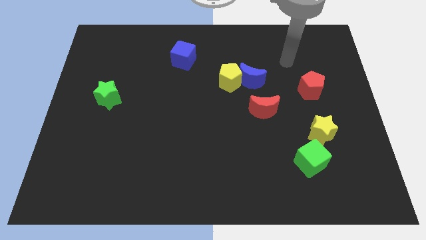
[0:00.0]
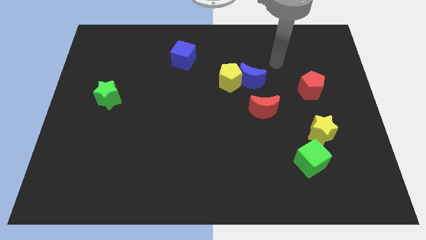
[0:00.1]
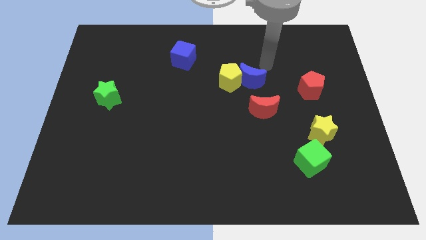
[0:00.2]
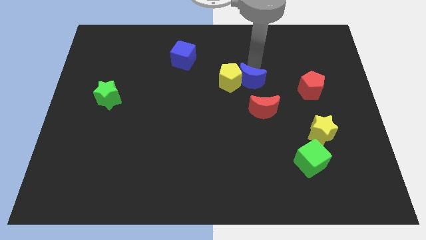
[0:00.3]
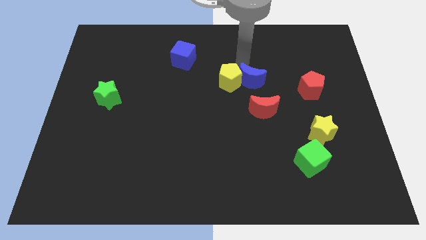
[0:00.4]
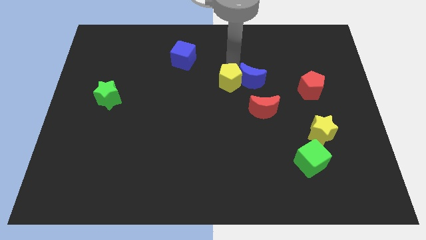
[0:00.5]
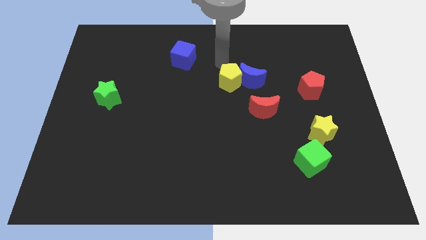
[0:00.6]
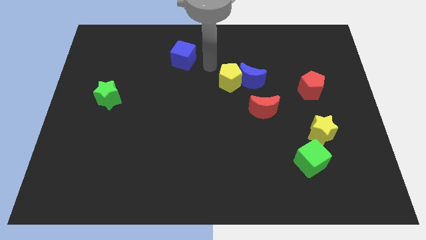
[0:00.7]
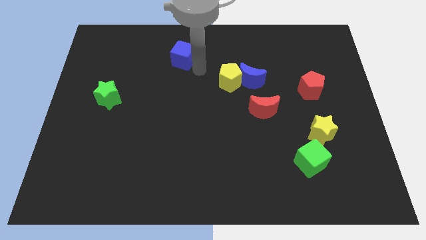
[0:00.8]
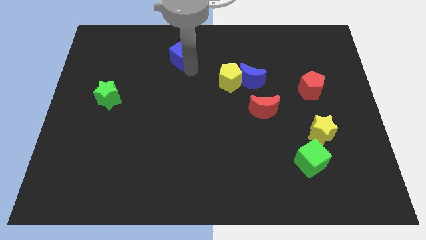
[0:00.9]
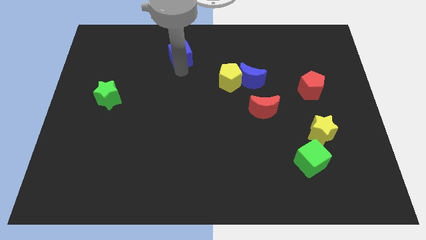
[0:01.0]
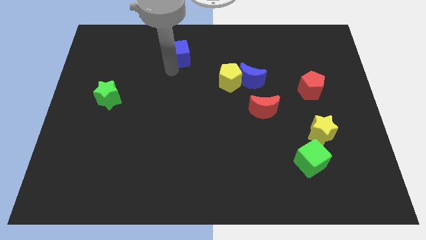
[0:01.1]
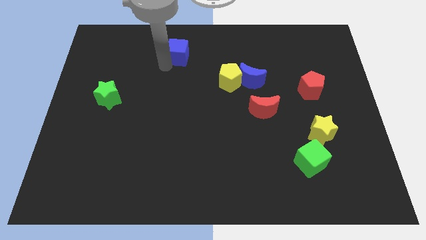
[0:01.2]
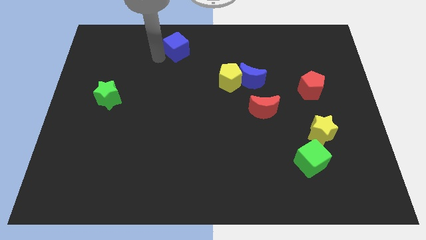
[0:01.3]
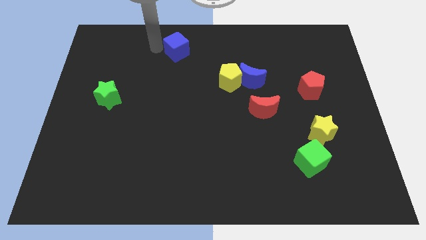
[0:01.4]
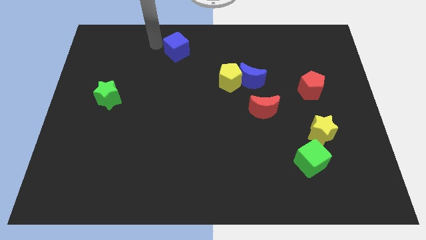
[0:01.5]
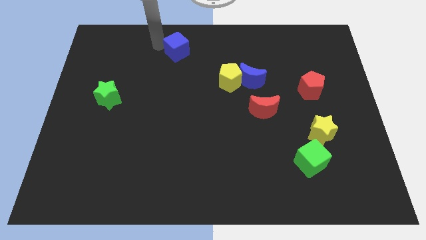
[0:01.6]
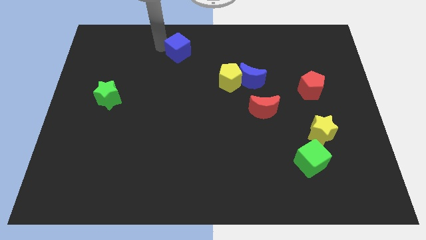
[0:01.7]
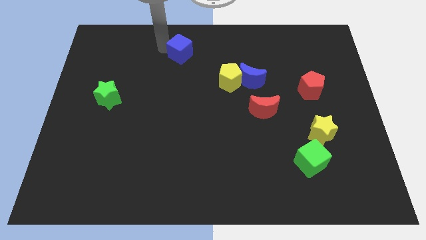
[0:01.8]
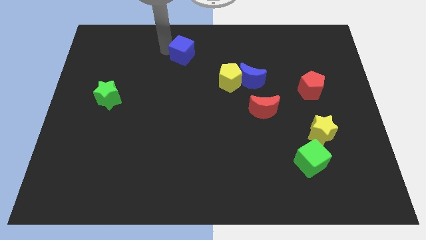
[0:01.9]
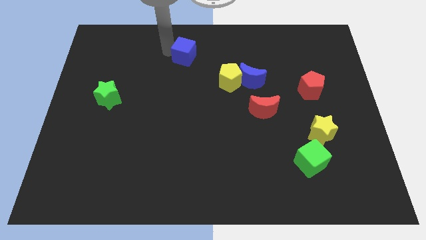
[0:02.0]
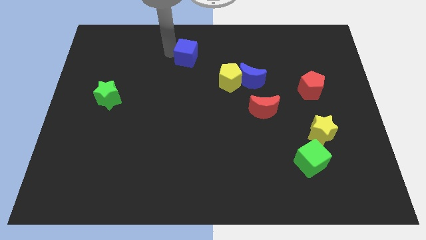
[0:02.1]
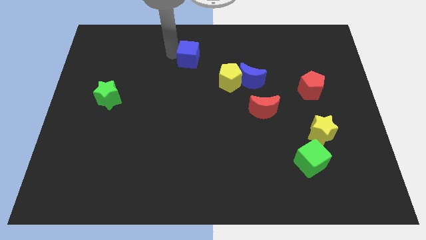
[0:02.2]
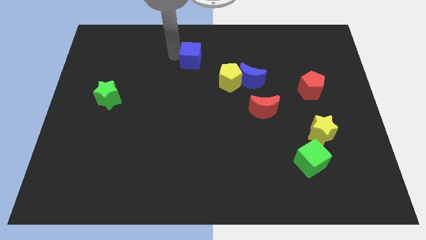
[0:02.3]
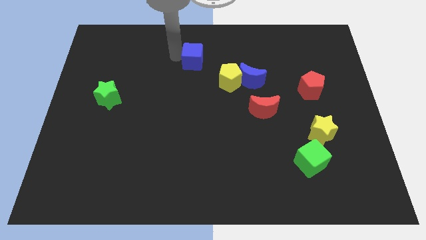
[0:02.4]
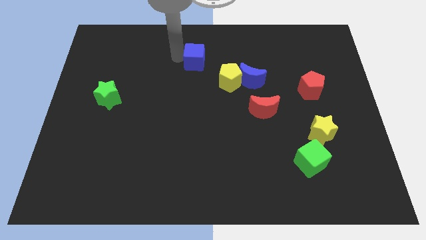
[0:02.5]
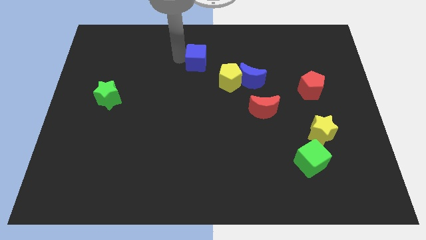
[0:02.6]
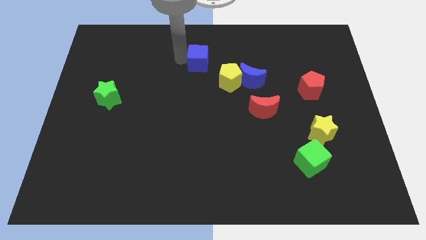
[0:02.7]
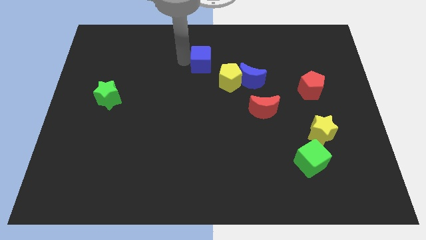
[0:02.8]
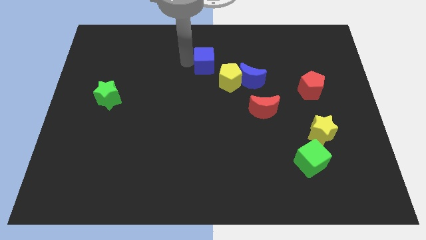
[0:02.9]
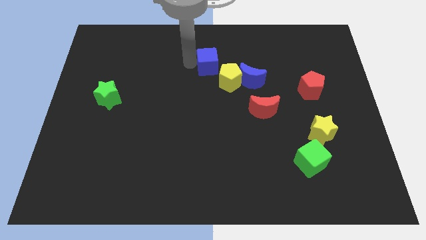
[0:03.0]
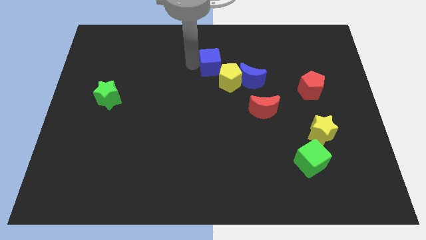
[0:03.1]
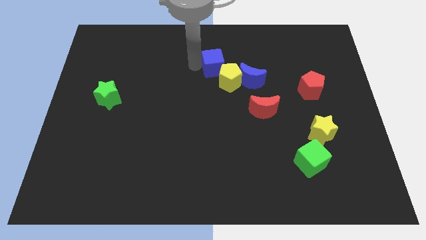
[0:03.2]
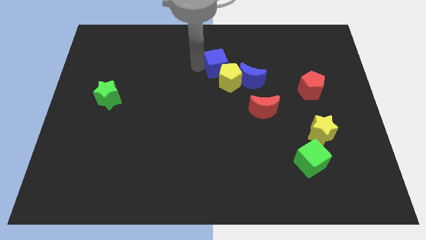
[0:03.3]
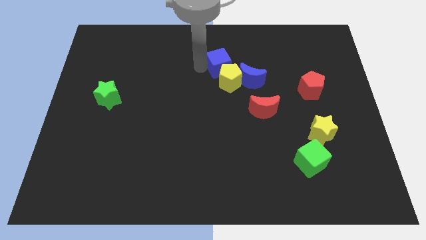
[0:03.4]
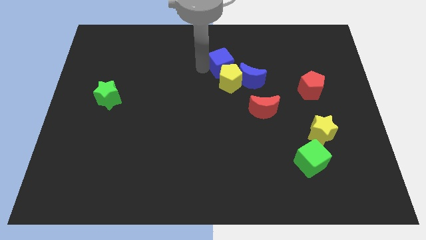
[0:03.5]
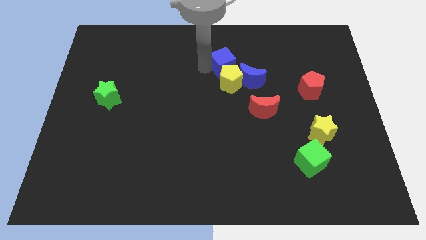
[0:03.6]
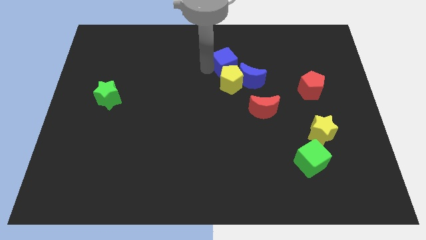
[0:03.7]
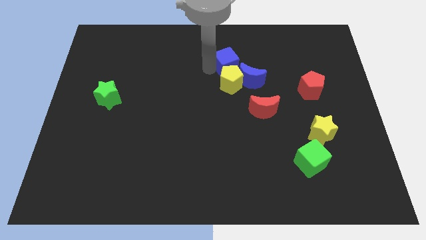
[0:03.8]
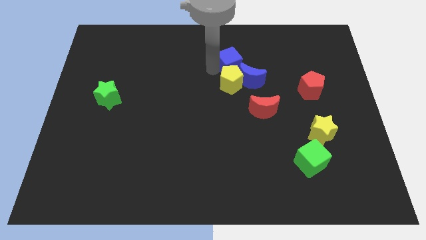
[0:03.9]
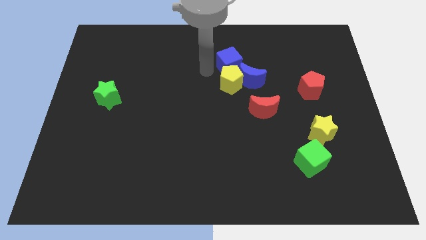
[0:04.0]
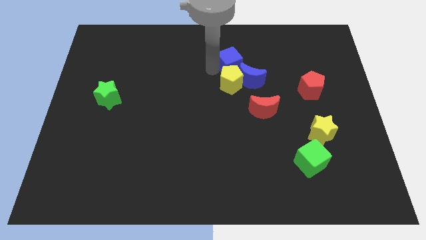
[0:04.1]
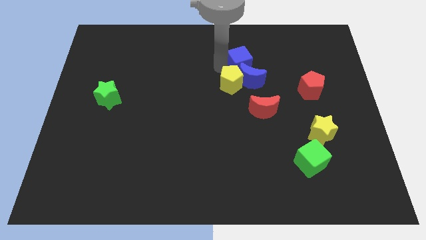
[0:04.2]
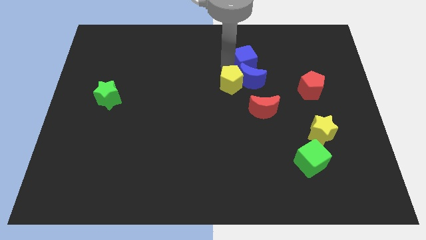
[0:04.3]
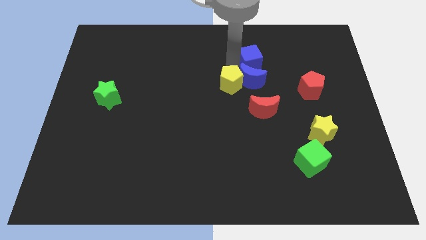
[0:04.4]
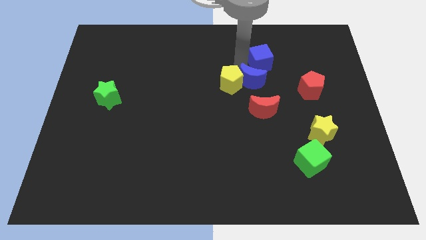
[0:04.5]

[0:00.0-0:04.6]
move the blue cube to the right

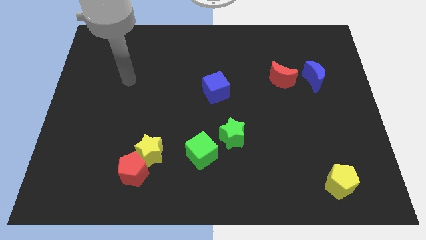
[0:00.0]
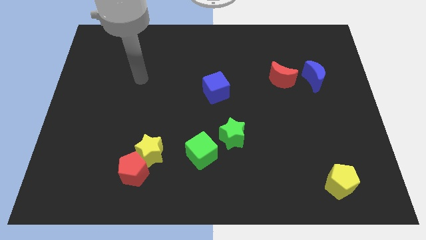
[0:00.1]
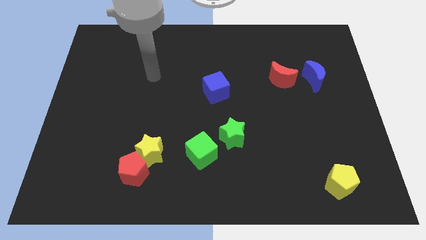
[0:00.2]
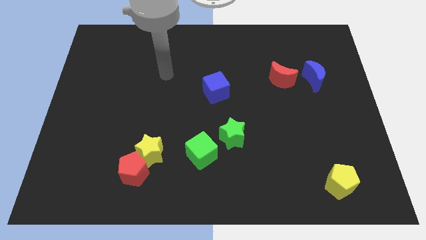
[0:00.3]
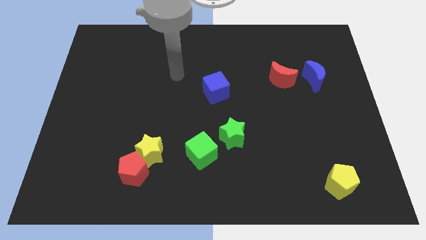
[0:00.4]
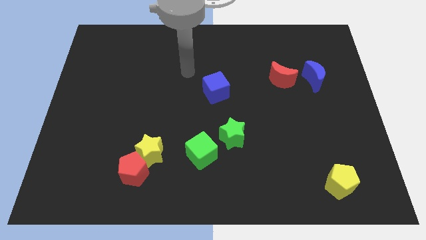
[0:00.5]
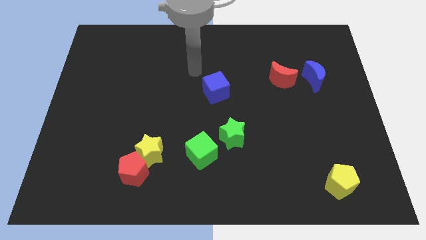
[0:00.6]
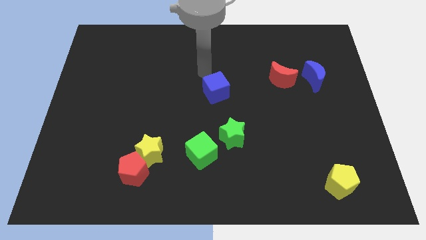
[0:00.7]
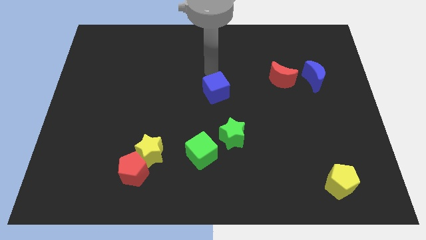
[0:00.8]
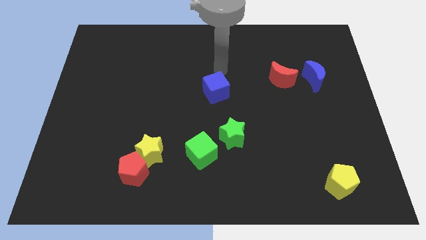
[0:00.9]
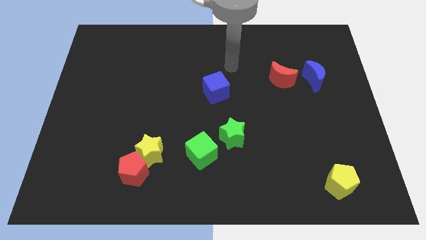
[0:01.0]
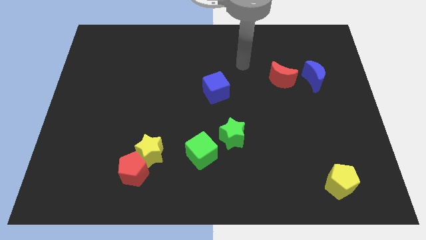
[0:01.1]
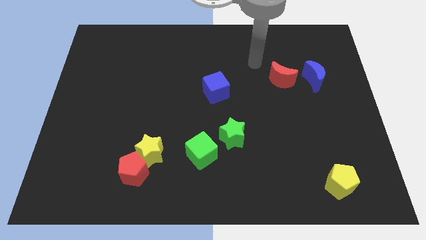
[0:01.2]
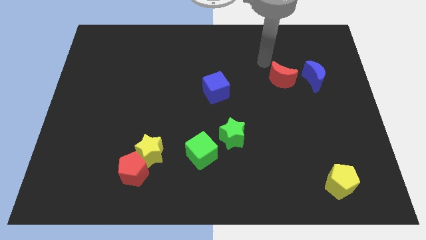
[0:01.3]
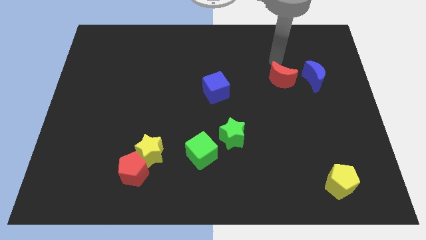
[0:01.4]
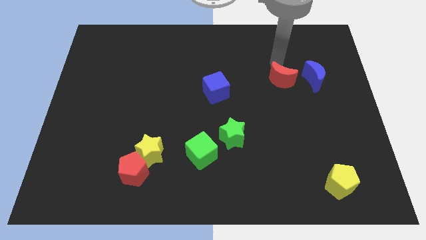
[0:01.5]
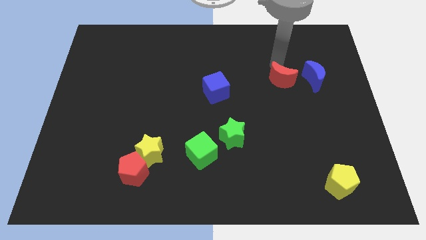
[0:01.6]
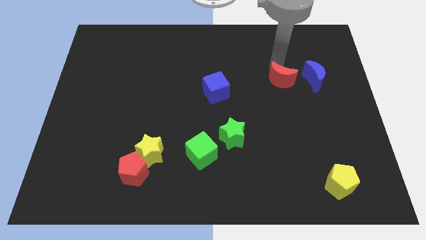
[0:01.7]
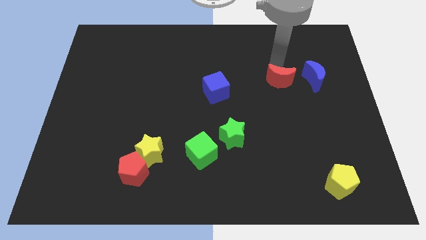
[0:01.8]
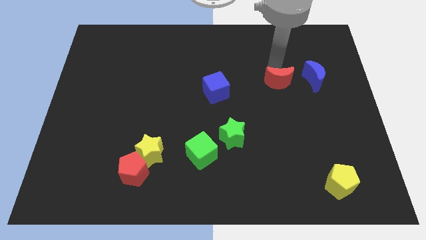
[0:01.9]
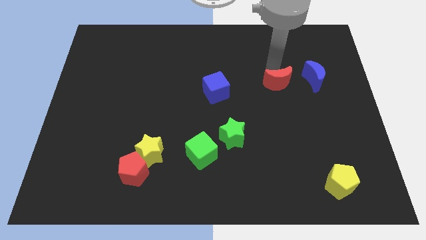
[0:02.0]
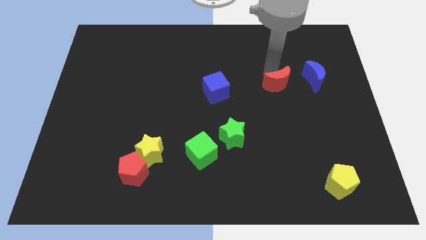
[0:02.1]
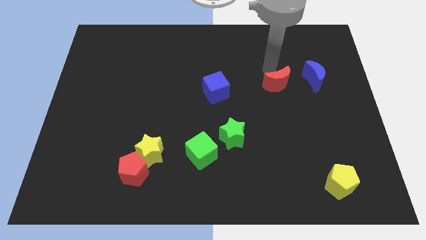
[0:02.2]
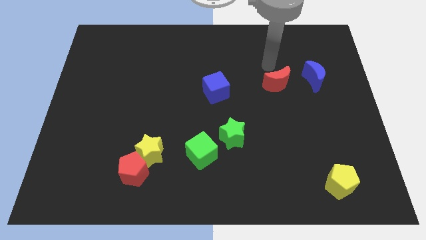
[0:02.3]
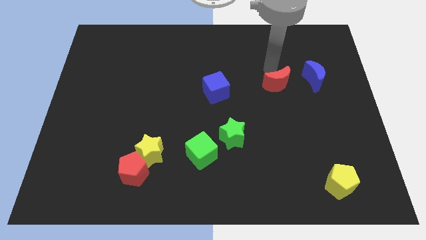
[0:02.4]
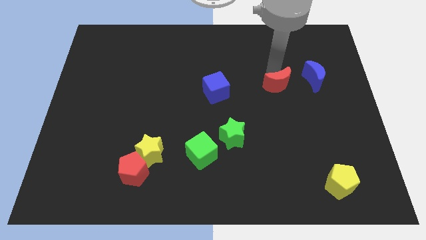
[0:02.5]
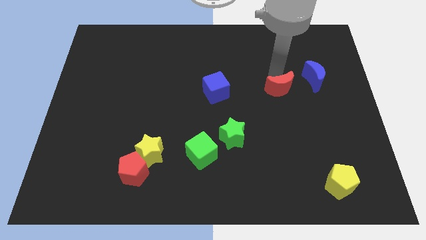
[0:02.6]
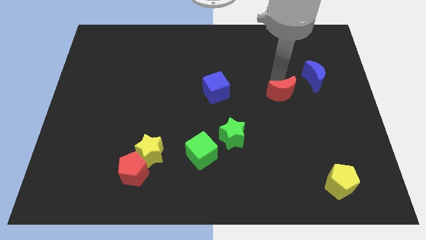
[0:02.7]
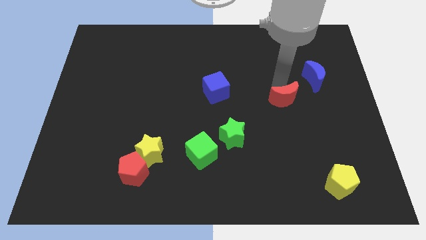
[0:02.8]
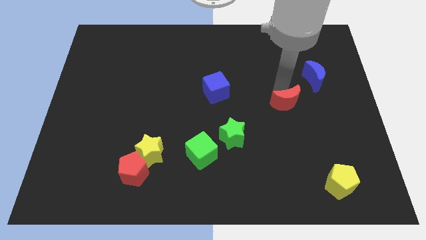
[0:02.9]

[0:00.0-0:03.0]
move the red moon downwards a bit
